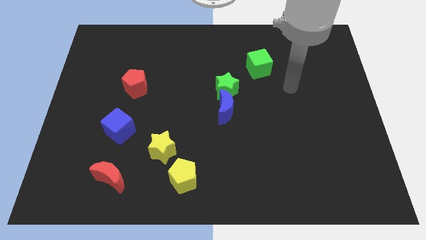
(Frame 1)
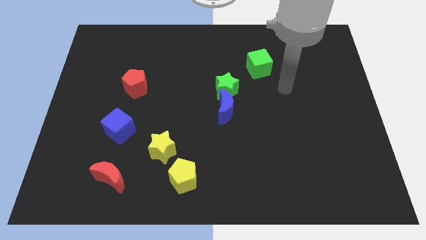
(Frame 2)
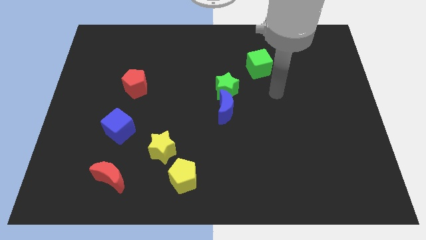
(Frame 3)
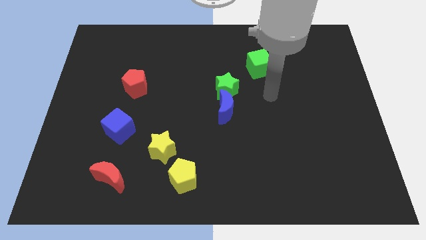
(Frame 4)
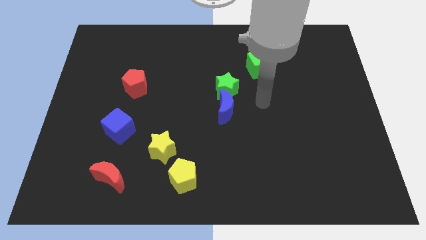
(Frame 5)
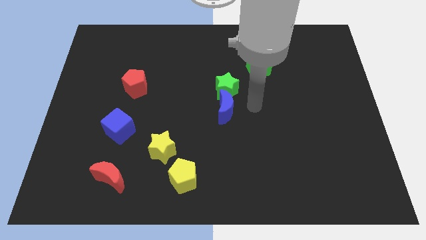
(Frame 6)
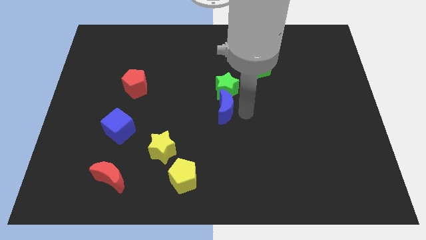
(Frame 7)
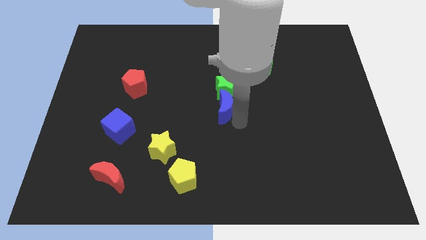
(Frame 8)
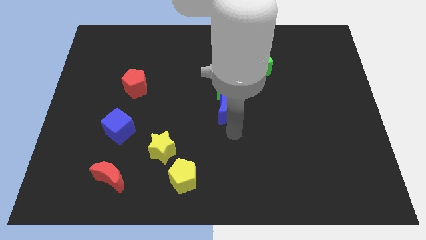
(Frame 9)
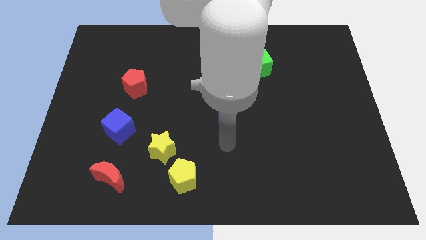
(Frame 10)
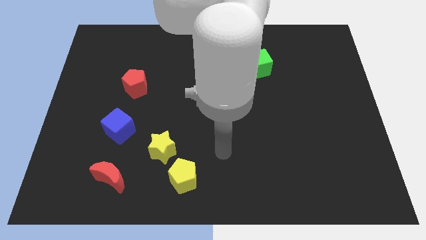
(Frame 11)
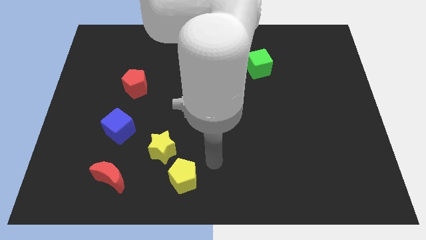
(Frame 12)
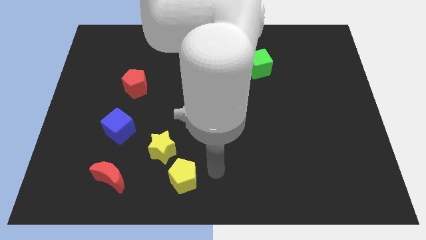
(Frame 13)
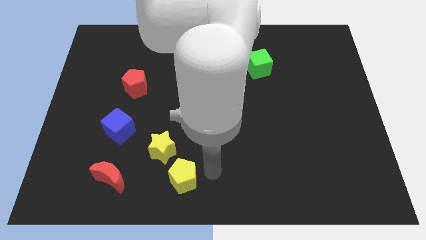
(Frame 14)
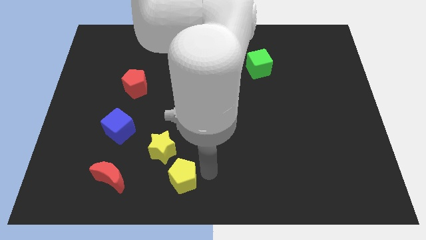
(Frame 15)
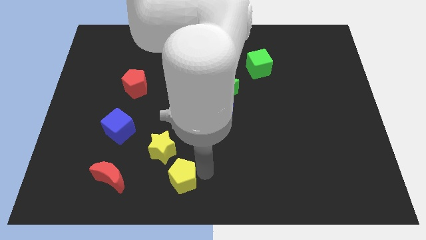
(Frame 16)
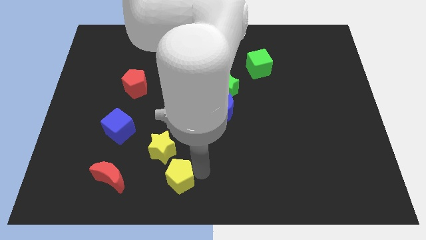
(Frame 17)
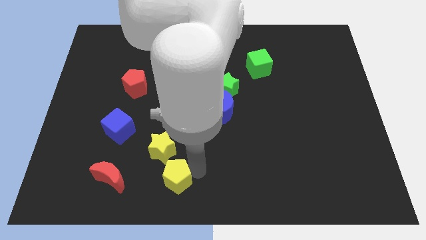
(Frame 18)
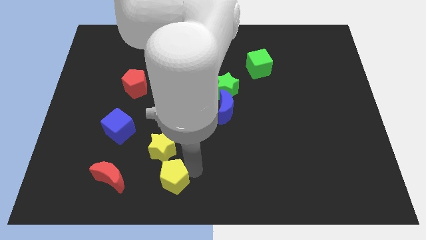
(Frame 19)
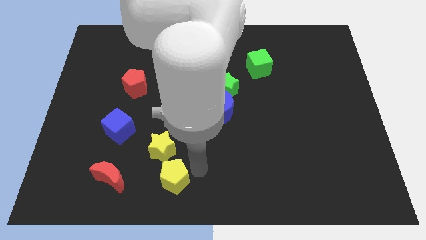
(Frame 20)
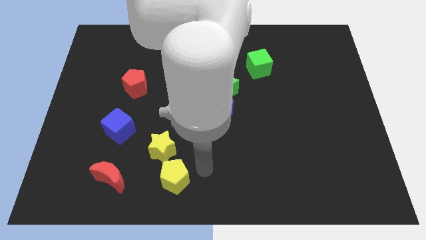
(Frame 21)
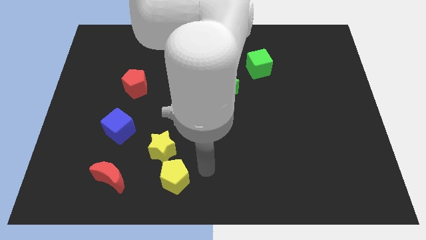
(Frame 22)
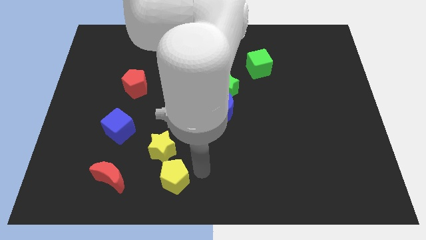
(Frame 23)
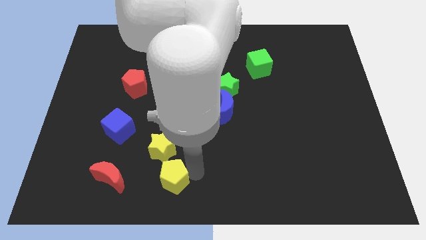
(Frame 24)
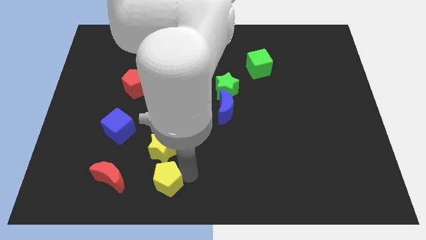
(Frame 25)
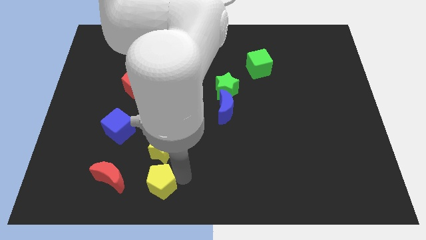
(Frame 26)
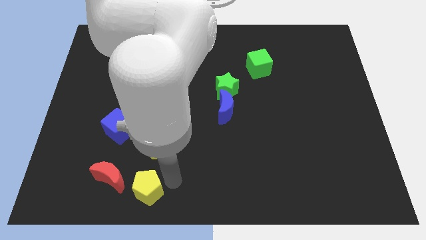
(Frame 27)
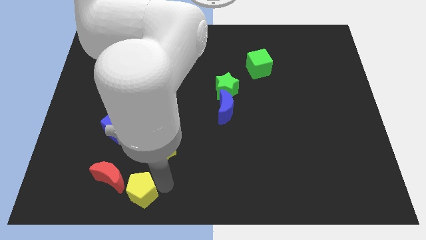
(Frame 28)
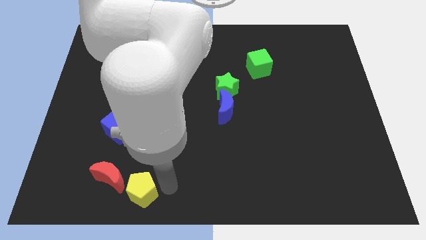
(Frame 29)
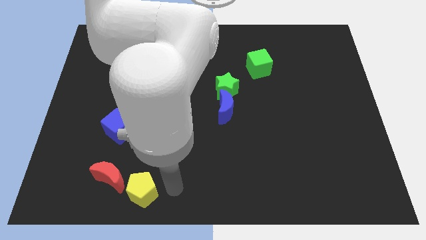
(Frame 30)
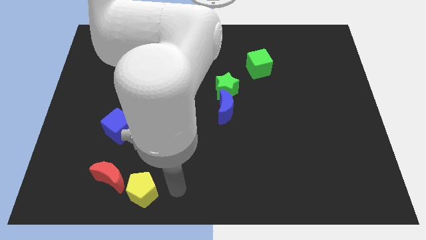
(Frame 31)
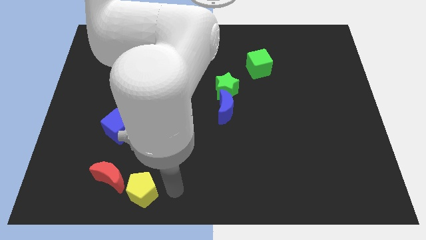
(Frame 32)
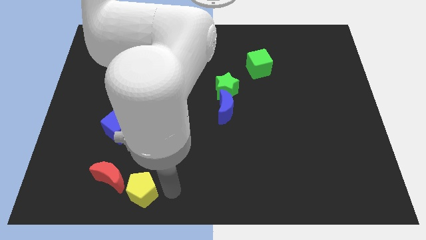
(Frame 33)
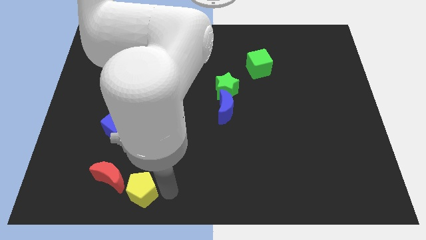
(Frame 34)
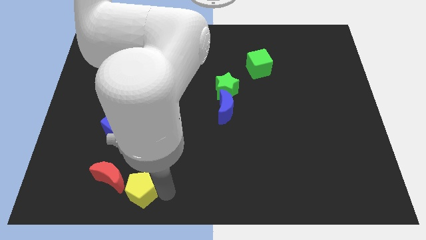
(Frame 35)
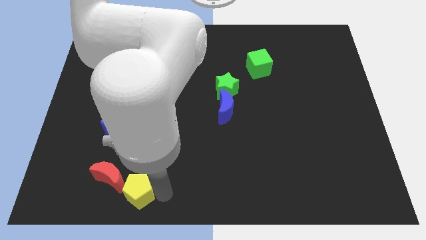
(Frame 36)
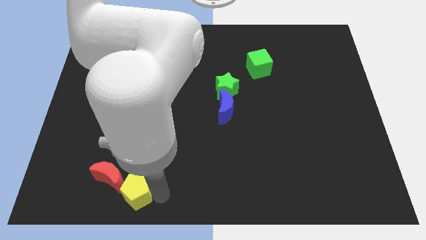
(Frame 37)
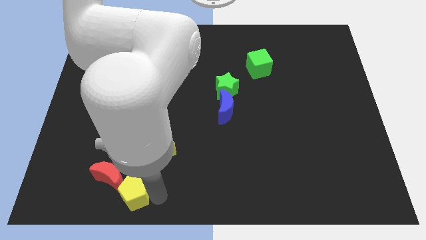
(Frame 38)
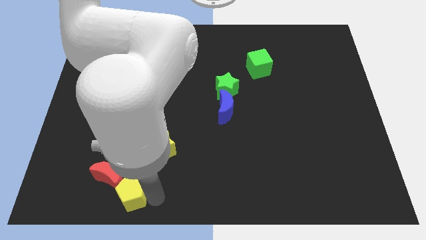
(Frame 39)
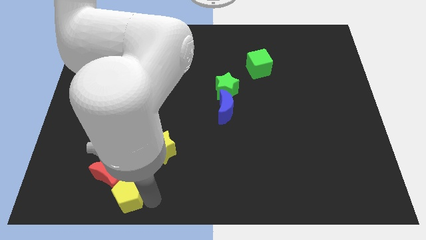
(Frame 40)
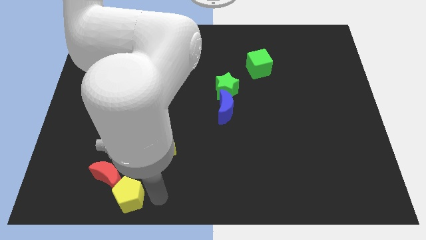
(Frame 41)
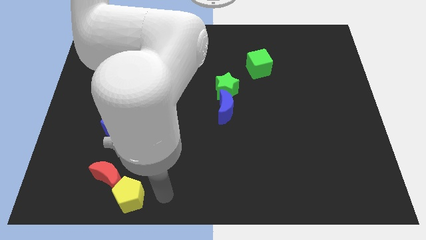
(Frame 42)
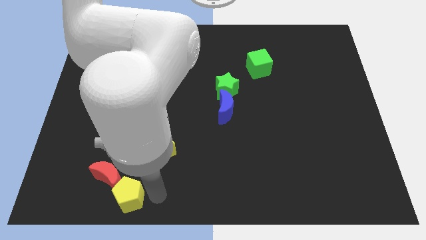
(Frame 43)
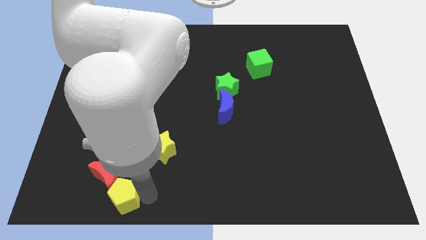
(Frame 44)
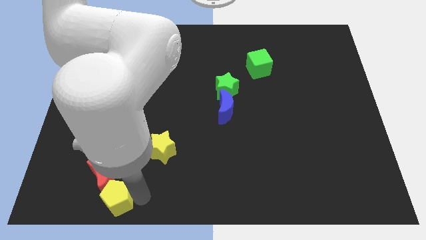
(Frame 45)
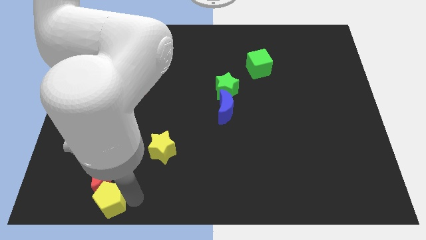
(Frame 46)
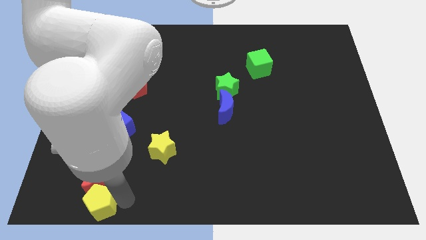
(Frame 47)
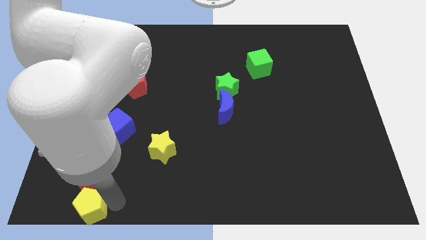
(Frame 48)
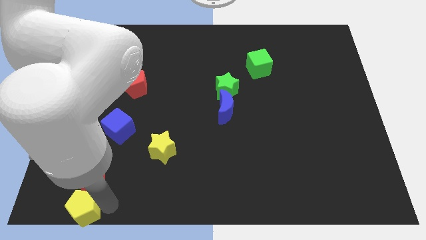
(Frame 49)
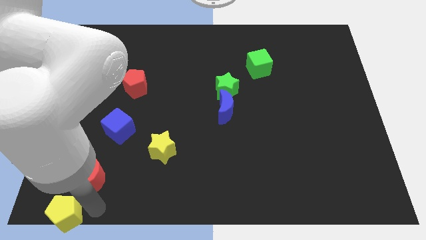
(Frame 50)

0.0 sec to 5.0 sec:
push the yellow pentagon to the bottom left corner

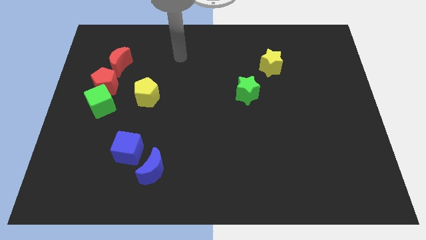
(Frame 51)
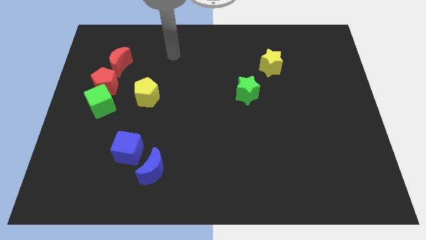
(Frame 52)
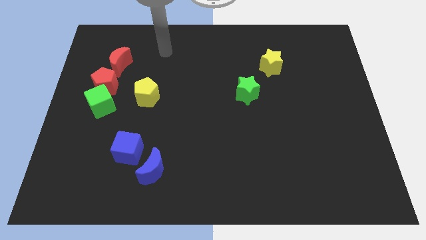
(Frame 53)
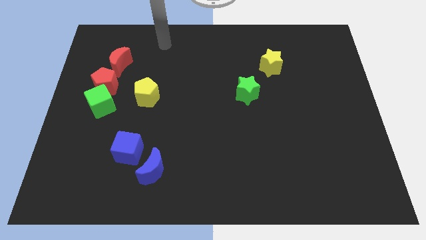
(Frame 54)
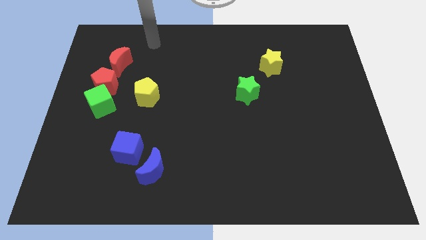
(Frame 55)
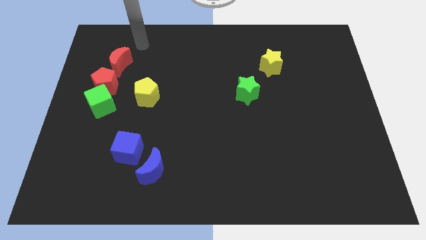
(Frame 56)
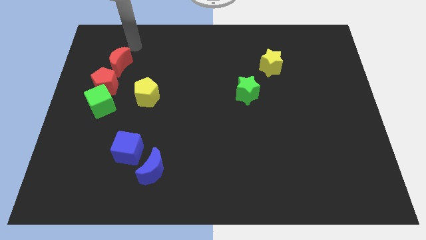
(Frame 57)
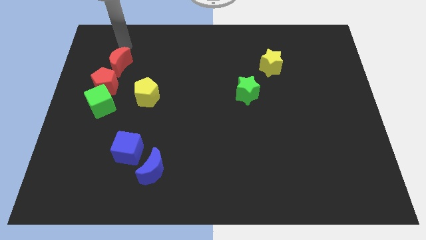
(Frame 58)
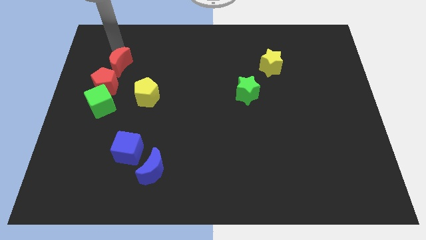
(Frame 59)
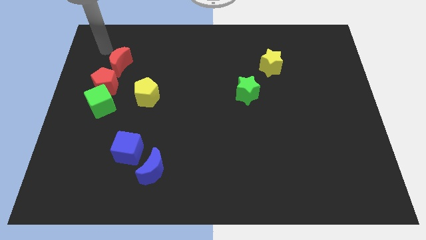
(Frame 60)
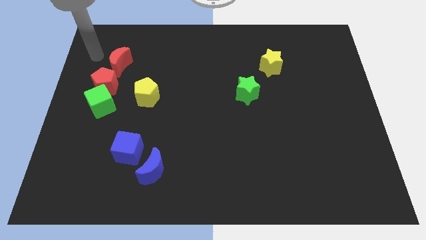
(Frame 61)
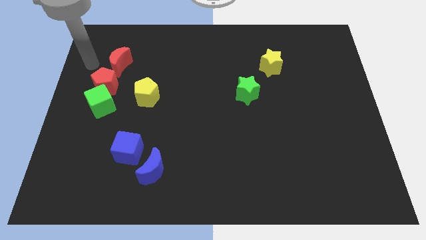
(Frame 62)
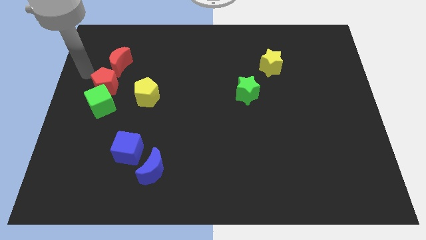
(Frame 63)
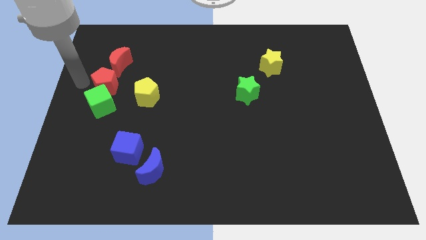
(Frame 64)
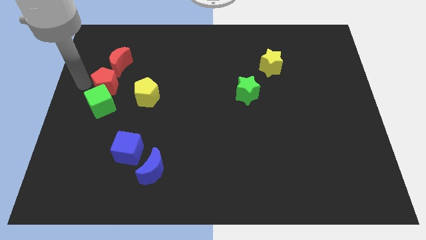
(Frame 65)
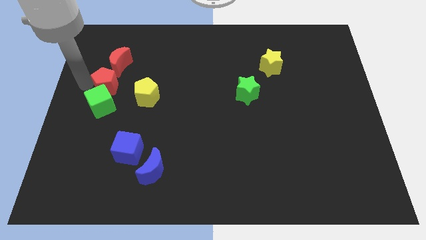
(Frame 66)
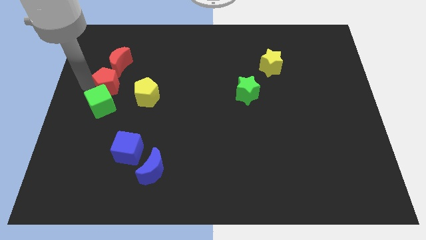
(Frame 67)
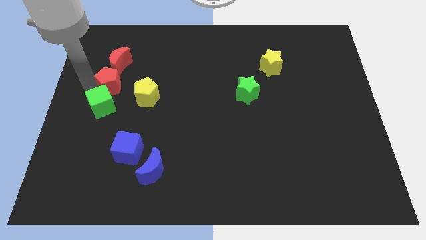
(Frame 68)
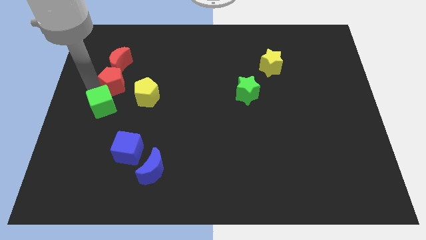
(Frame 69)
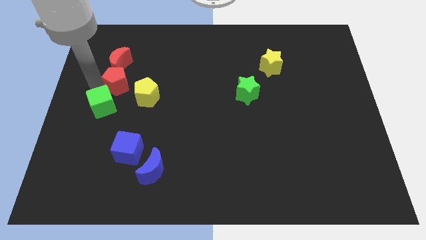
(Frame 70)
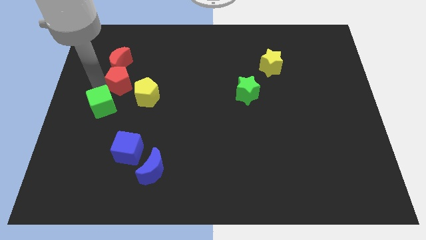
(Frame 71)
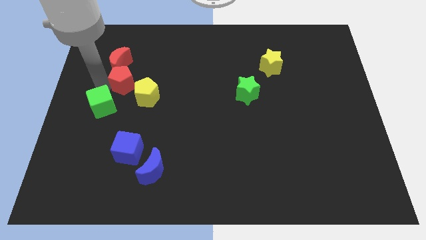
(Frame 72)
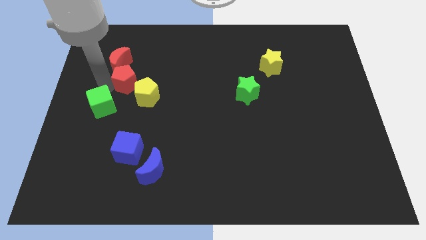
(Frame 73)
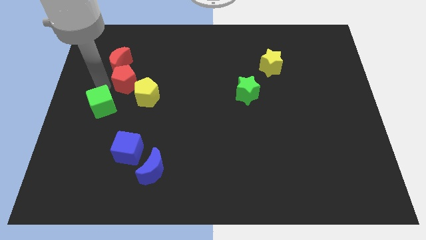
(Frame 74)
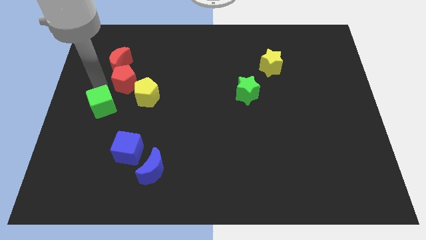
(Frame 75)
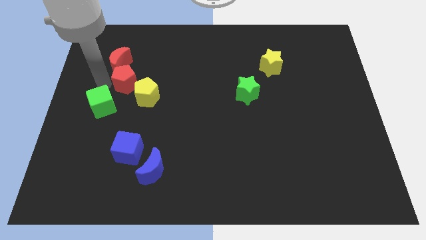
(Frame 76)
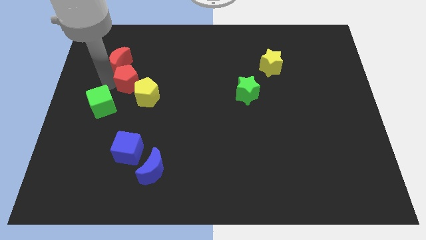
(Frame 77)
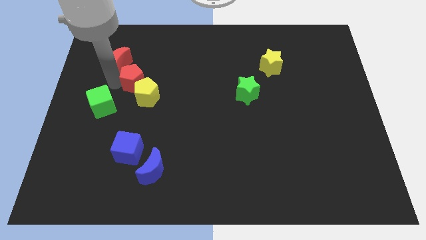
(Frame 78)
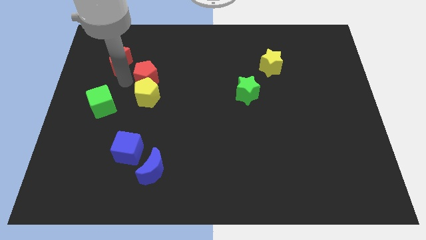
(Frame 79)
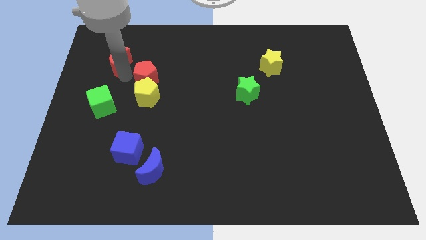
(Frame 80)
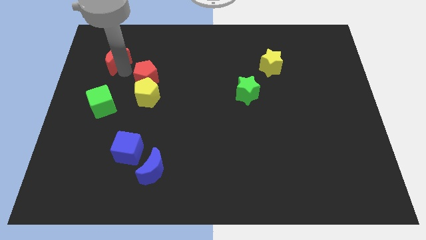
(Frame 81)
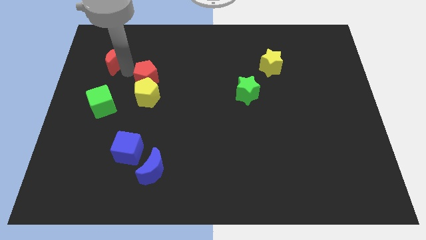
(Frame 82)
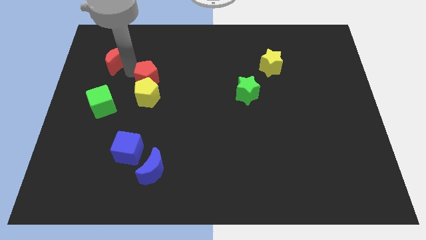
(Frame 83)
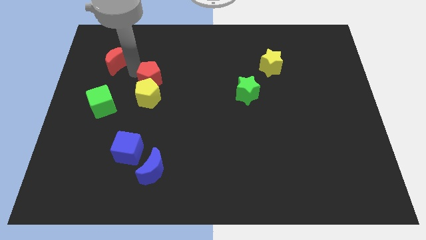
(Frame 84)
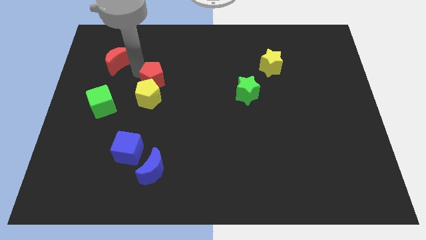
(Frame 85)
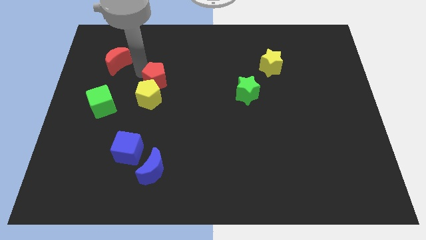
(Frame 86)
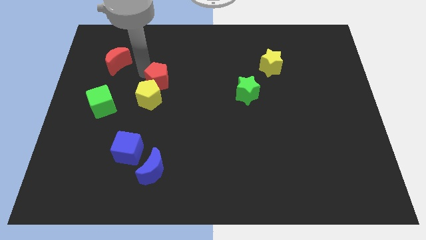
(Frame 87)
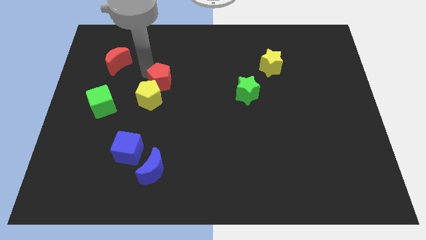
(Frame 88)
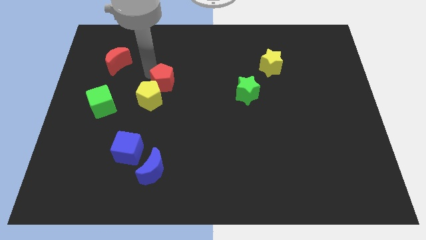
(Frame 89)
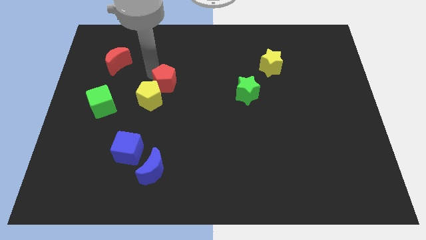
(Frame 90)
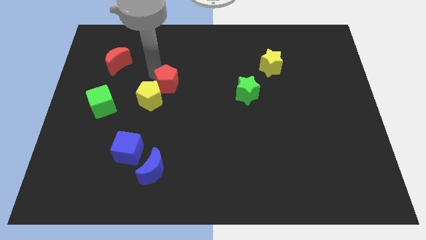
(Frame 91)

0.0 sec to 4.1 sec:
put the red pentagon to the middle
